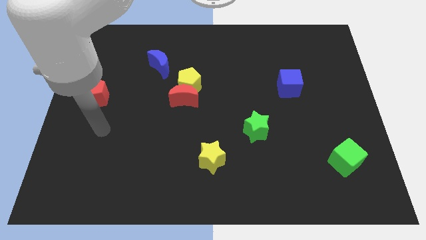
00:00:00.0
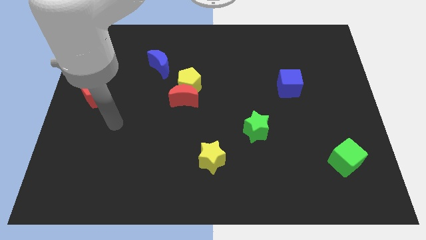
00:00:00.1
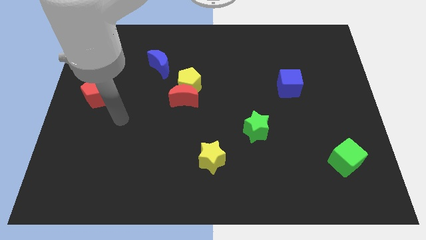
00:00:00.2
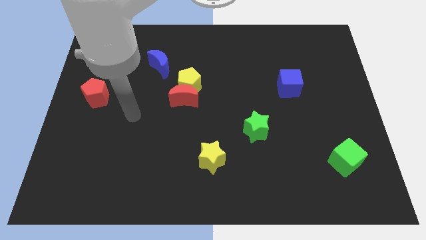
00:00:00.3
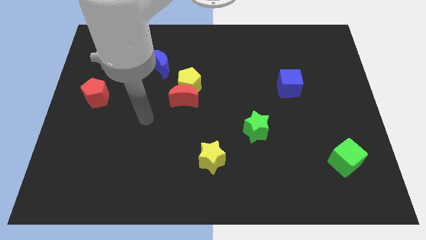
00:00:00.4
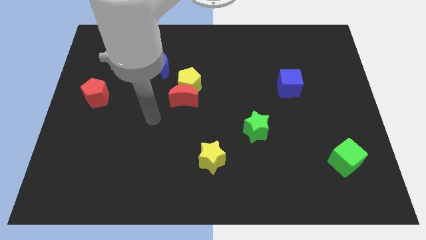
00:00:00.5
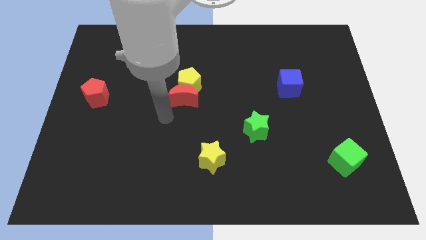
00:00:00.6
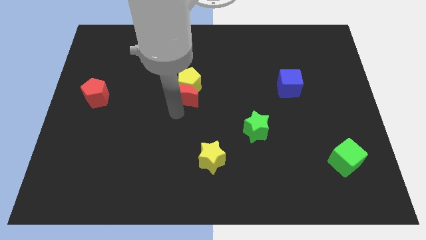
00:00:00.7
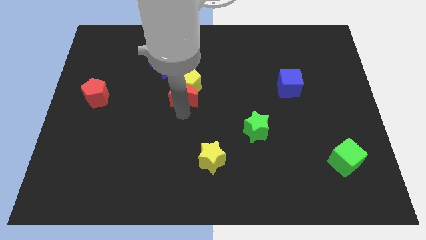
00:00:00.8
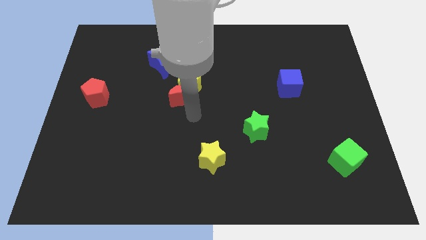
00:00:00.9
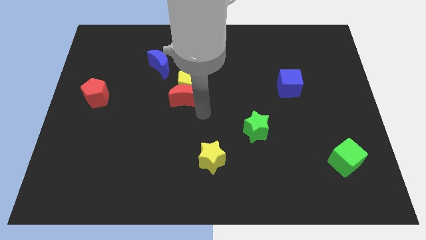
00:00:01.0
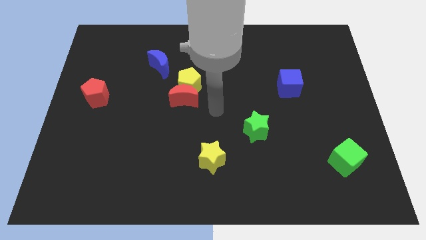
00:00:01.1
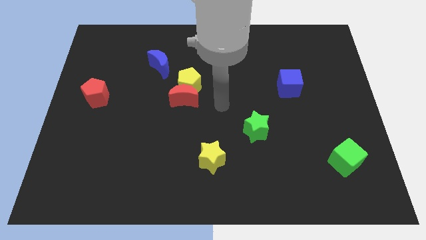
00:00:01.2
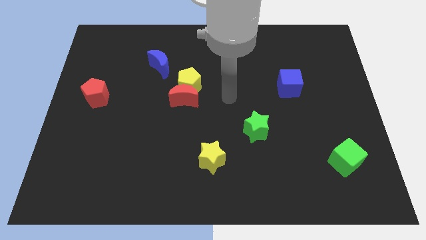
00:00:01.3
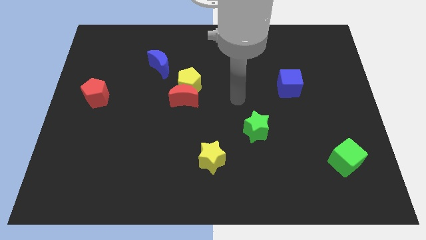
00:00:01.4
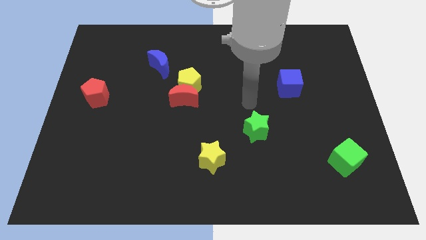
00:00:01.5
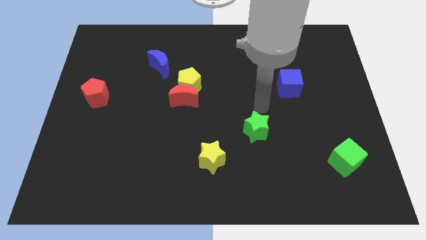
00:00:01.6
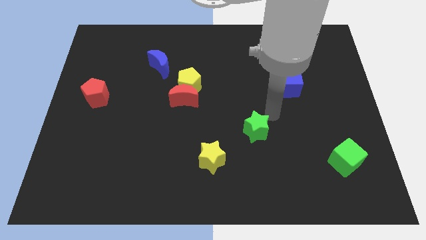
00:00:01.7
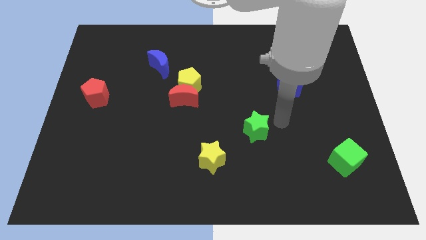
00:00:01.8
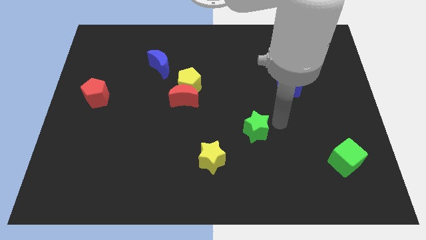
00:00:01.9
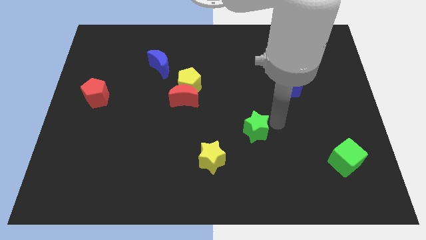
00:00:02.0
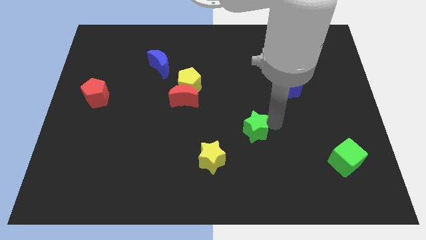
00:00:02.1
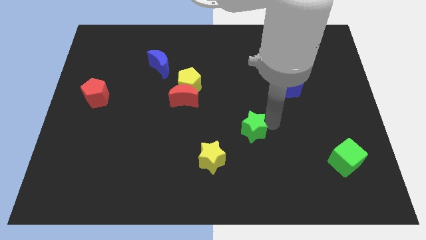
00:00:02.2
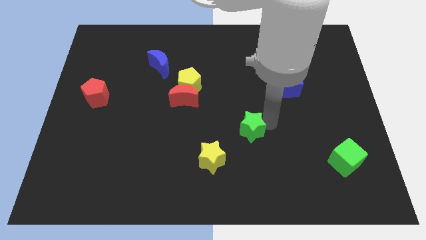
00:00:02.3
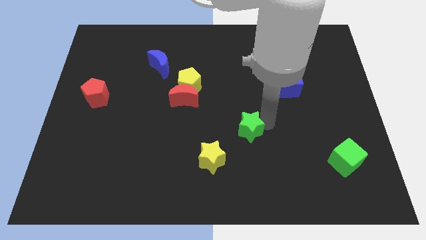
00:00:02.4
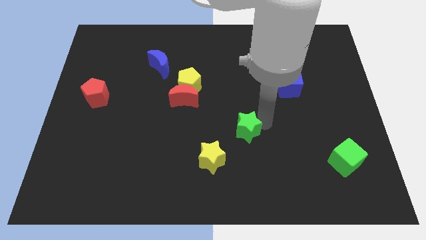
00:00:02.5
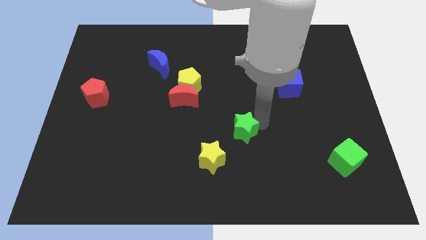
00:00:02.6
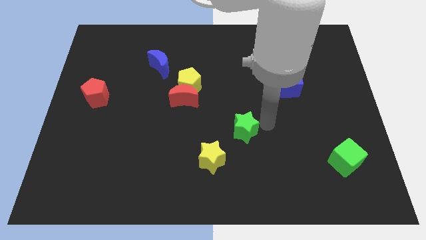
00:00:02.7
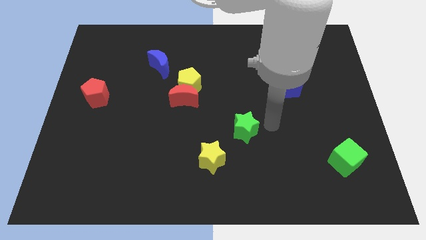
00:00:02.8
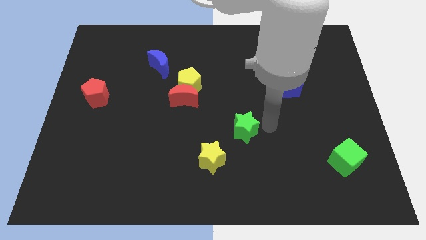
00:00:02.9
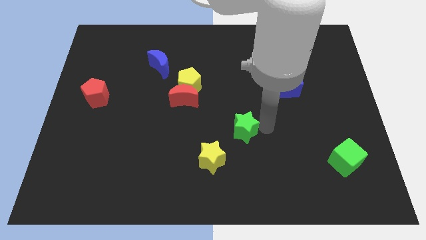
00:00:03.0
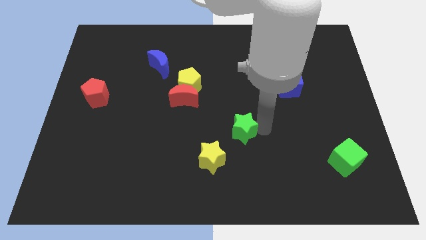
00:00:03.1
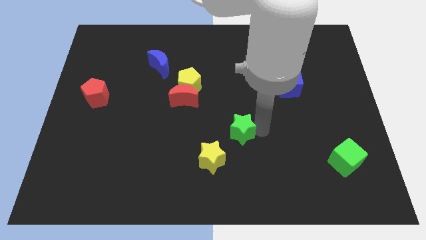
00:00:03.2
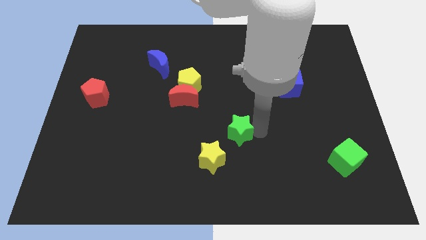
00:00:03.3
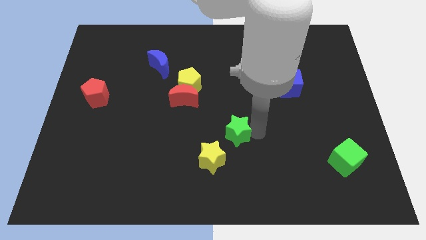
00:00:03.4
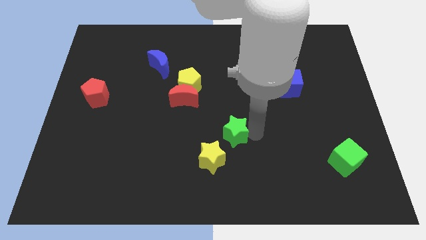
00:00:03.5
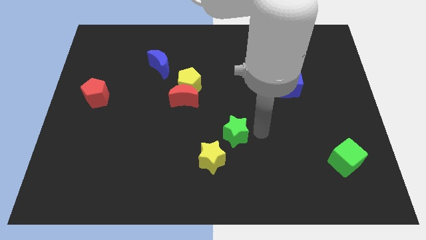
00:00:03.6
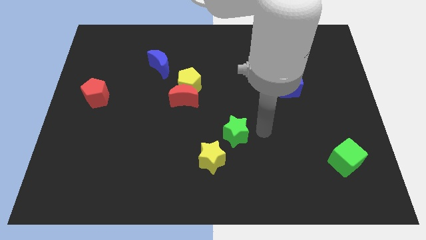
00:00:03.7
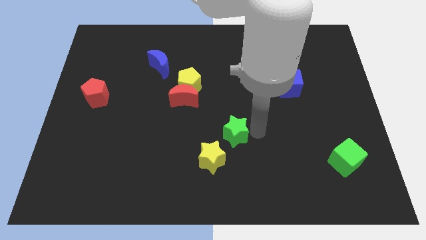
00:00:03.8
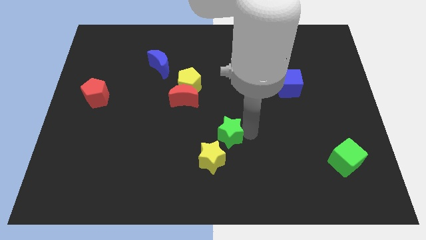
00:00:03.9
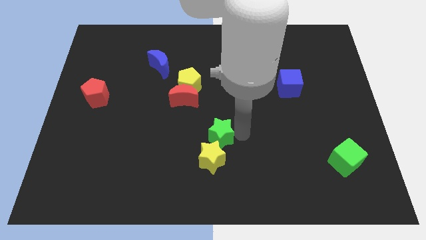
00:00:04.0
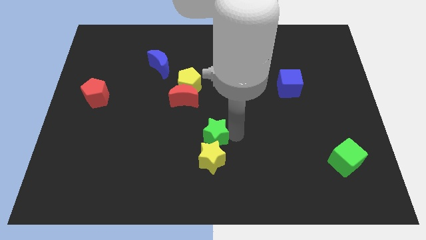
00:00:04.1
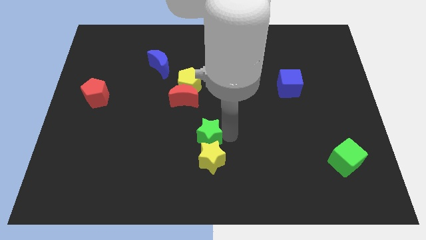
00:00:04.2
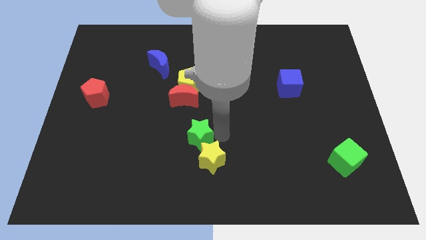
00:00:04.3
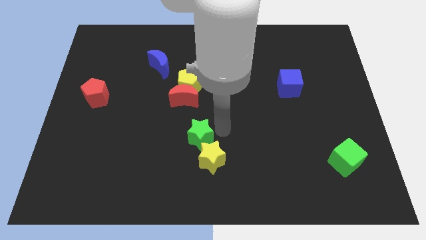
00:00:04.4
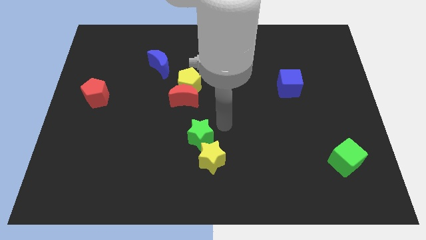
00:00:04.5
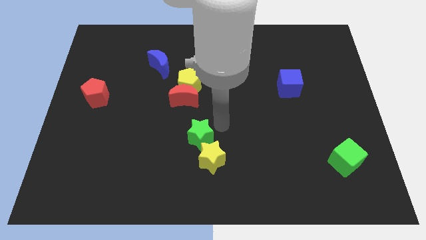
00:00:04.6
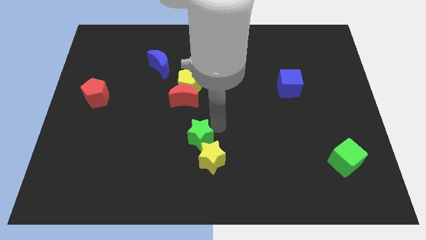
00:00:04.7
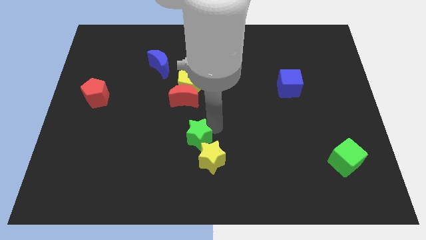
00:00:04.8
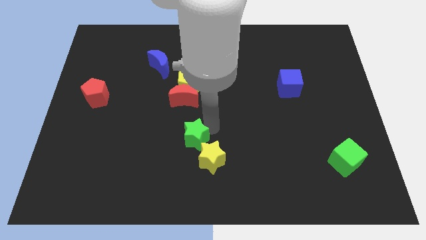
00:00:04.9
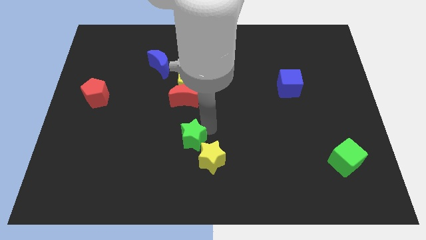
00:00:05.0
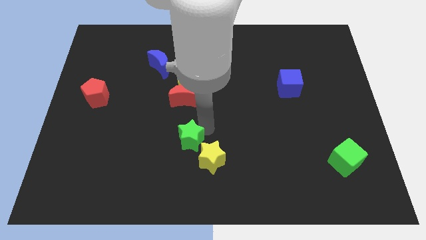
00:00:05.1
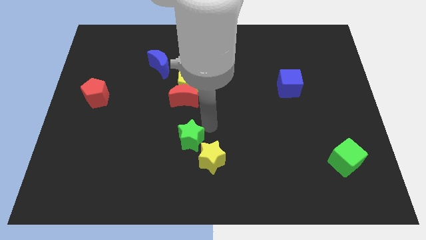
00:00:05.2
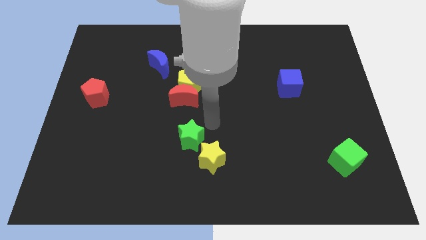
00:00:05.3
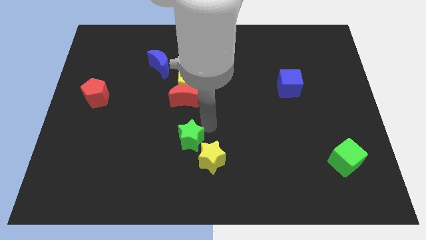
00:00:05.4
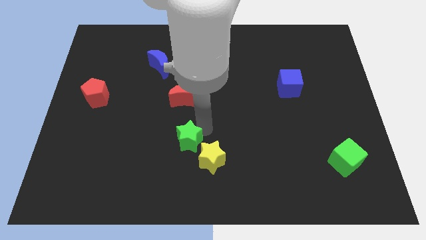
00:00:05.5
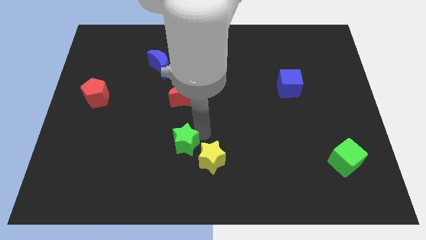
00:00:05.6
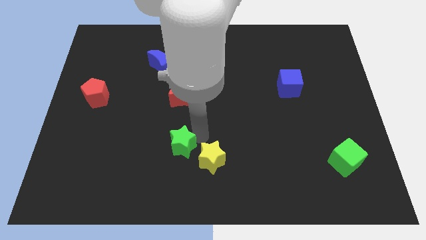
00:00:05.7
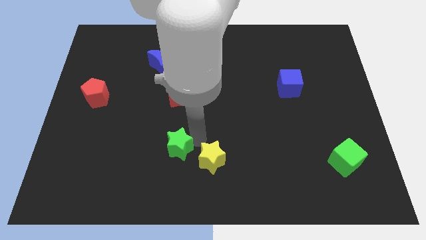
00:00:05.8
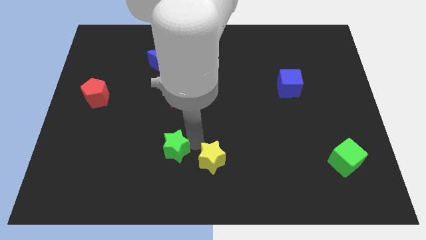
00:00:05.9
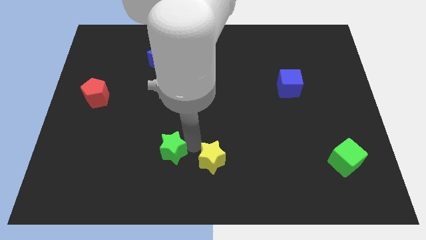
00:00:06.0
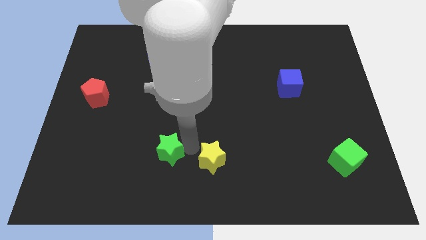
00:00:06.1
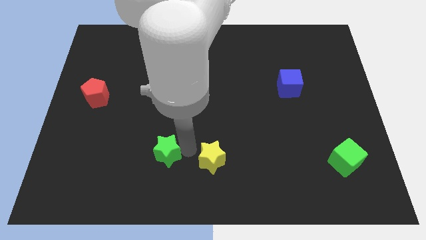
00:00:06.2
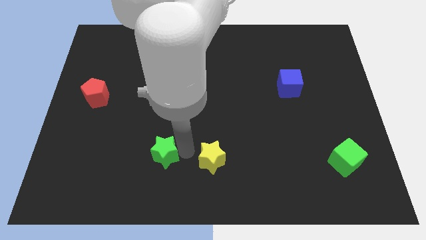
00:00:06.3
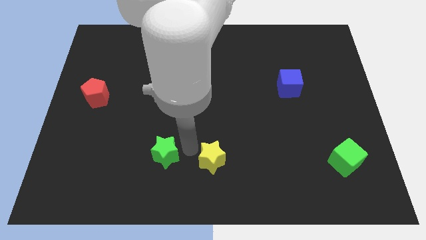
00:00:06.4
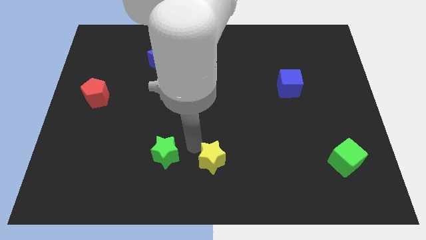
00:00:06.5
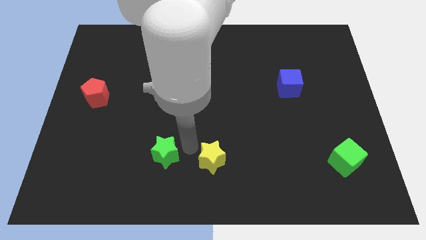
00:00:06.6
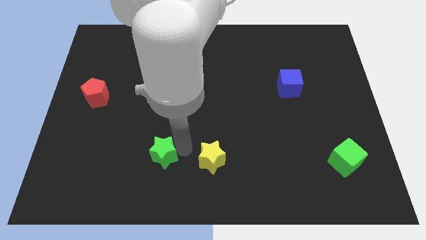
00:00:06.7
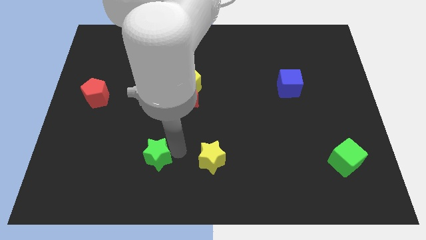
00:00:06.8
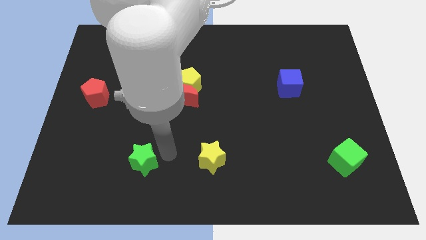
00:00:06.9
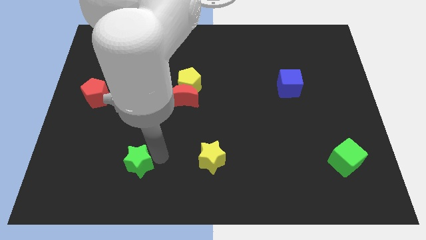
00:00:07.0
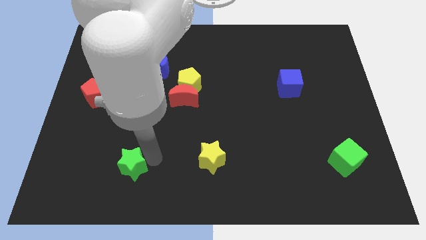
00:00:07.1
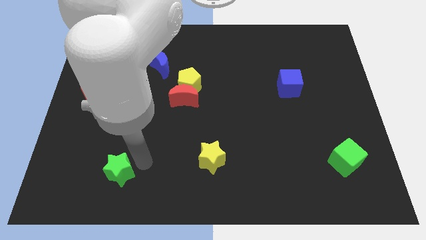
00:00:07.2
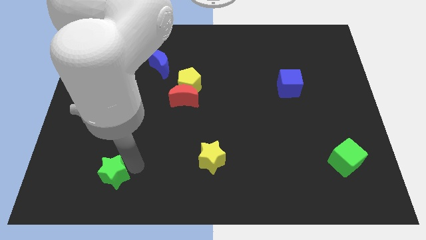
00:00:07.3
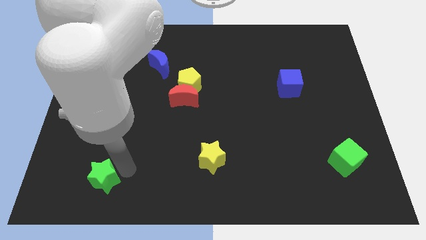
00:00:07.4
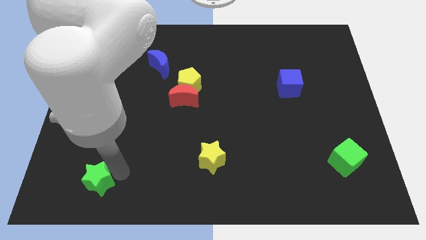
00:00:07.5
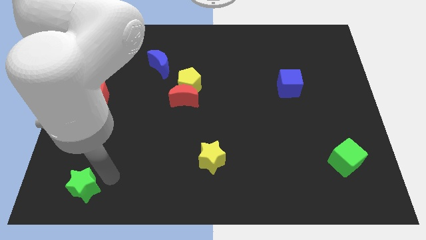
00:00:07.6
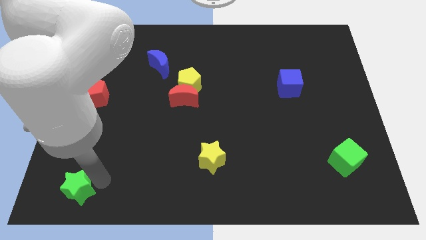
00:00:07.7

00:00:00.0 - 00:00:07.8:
move the green star to the lower left corner
